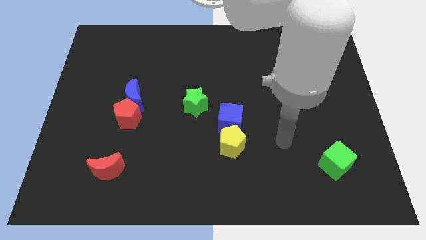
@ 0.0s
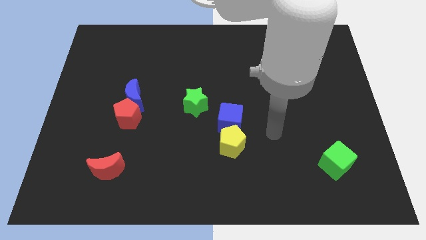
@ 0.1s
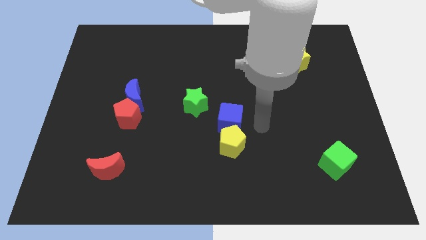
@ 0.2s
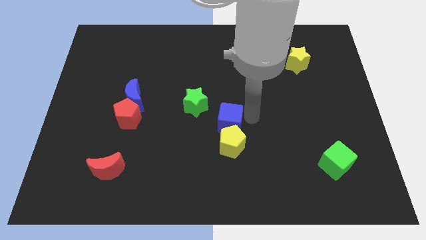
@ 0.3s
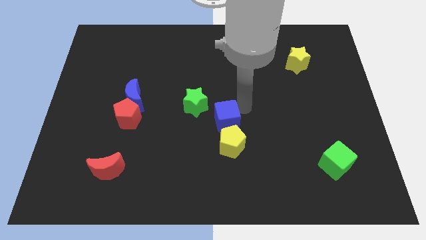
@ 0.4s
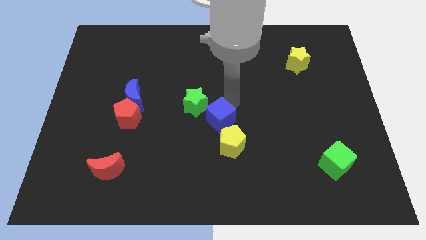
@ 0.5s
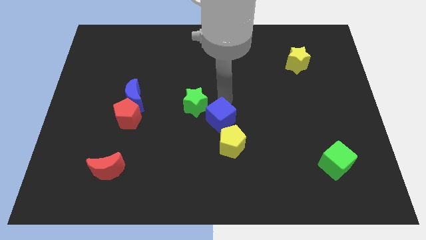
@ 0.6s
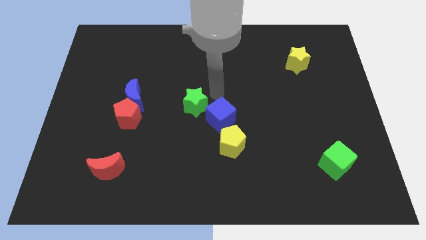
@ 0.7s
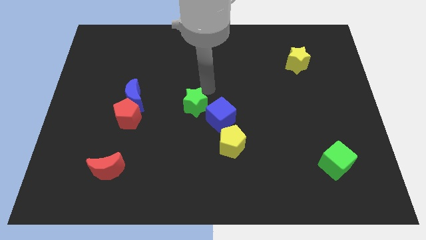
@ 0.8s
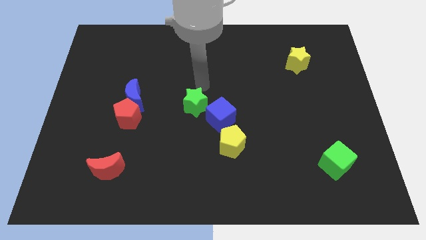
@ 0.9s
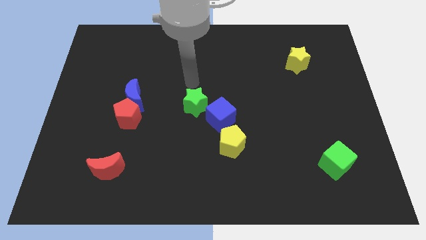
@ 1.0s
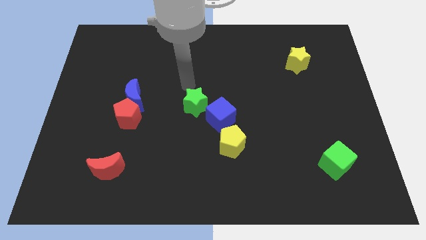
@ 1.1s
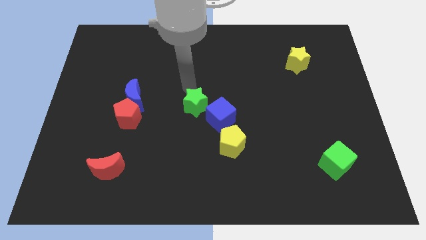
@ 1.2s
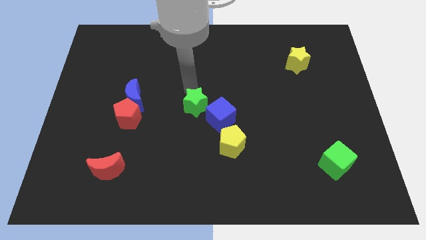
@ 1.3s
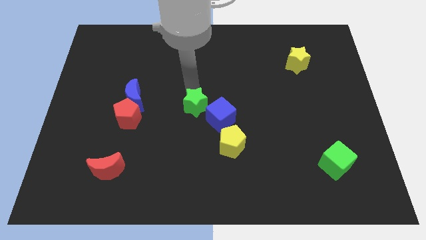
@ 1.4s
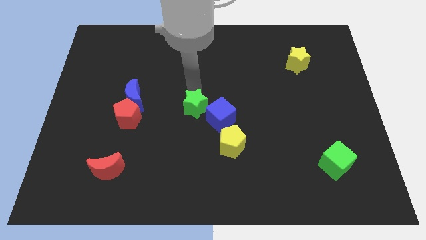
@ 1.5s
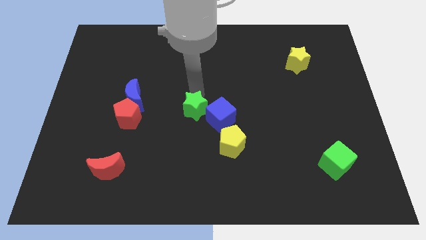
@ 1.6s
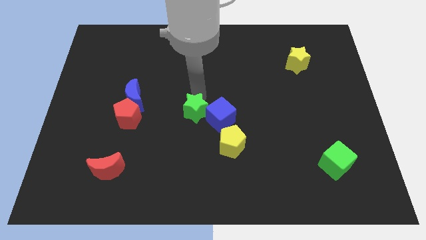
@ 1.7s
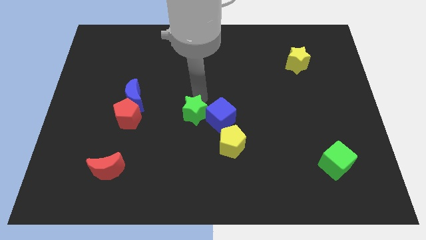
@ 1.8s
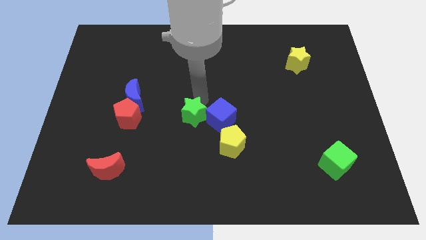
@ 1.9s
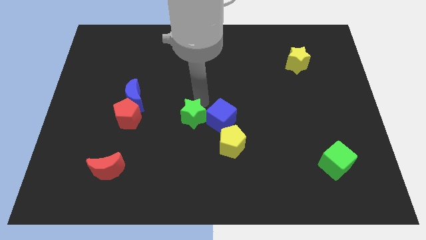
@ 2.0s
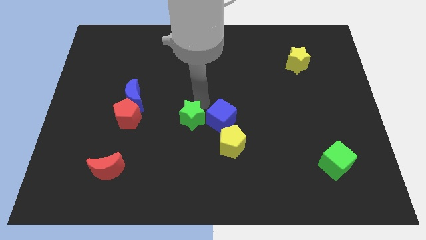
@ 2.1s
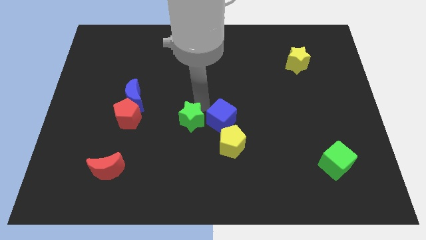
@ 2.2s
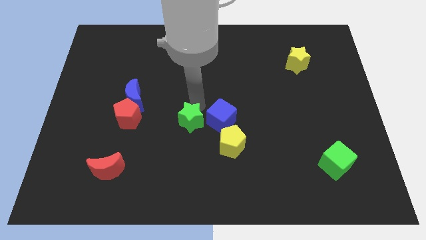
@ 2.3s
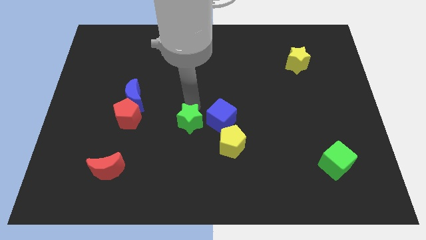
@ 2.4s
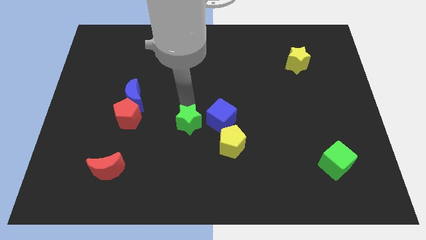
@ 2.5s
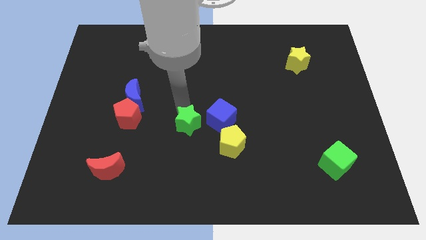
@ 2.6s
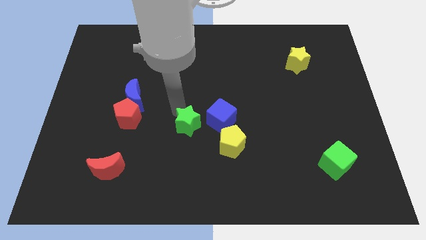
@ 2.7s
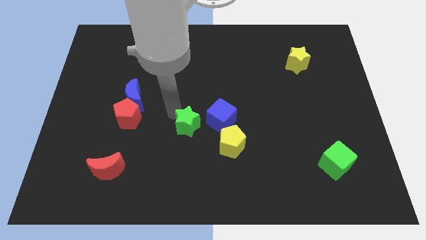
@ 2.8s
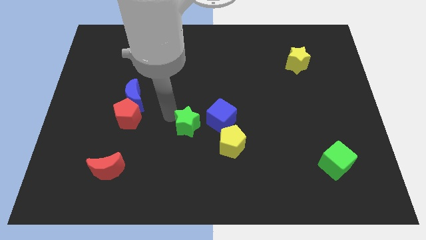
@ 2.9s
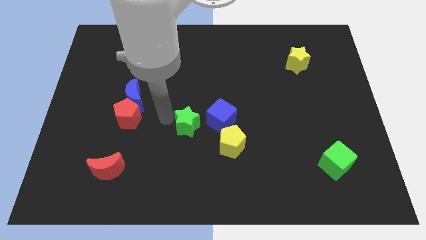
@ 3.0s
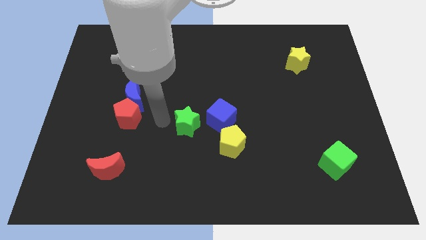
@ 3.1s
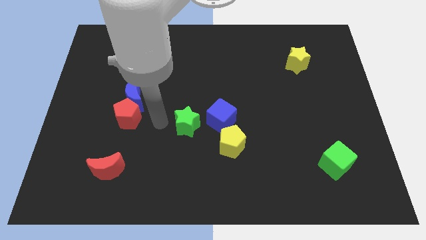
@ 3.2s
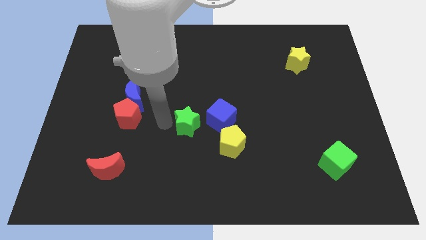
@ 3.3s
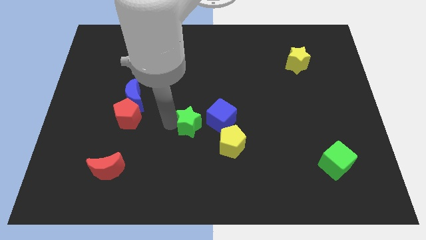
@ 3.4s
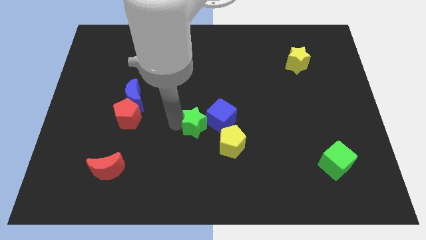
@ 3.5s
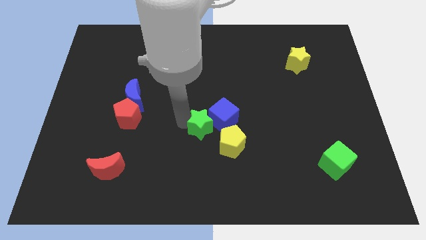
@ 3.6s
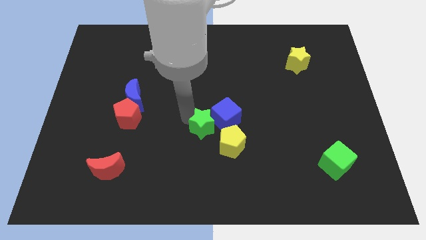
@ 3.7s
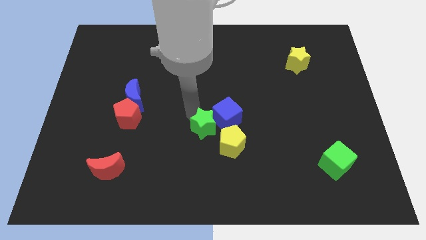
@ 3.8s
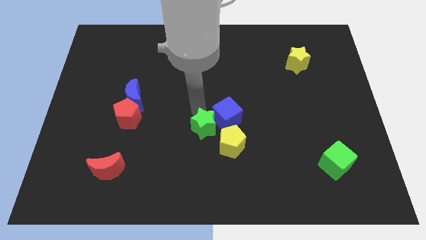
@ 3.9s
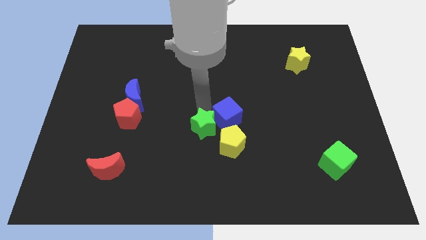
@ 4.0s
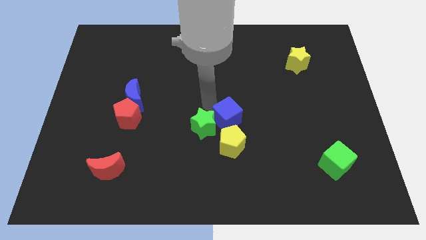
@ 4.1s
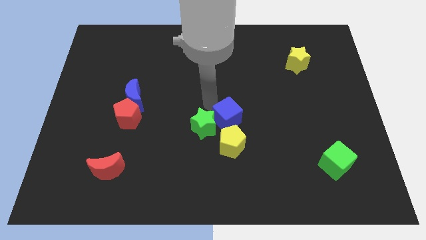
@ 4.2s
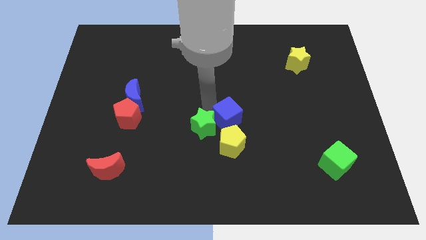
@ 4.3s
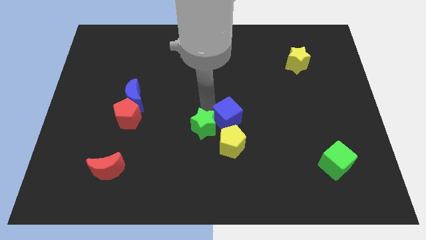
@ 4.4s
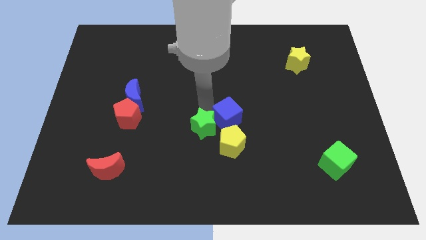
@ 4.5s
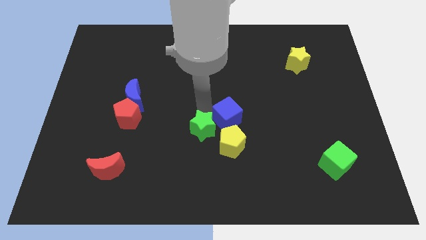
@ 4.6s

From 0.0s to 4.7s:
move the green star somewhat down

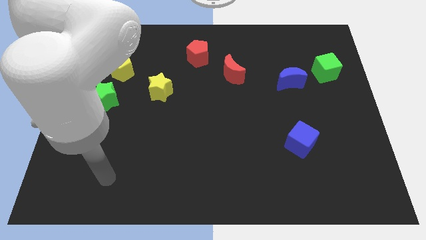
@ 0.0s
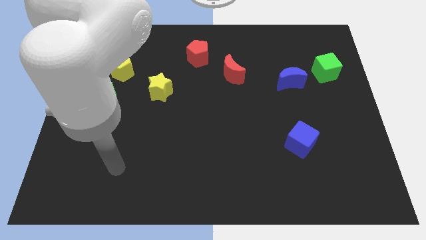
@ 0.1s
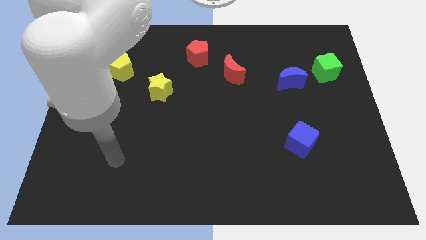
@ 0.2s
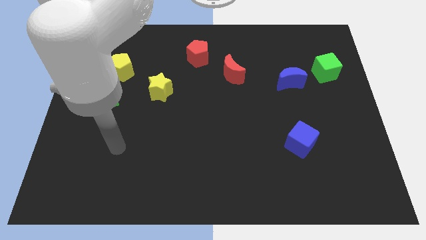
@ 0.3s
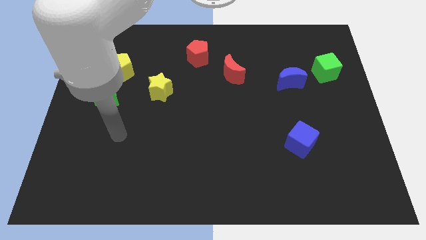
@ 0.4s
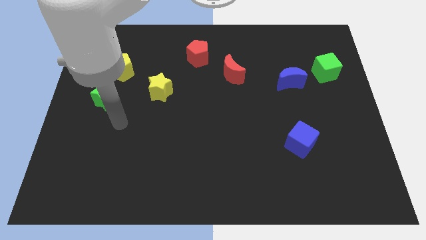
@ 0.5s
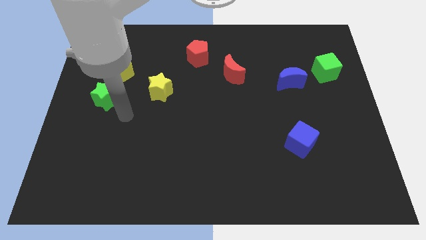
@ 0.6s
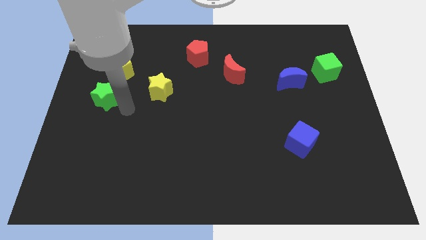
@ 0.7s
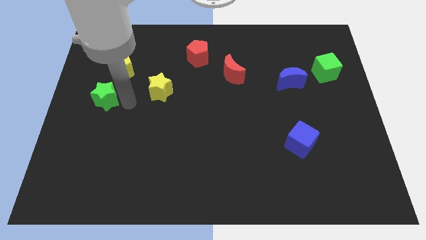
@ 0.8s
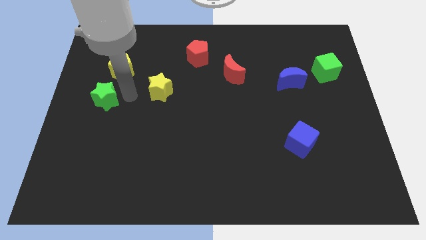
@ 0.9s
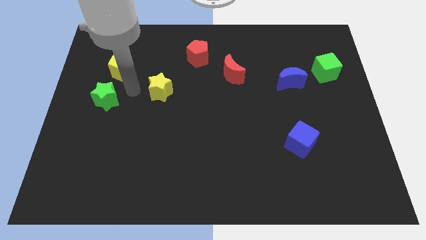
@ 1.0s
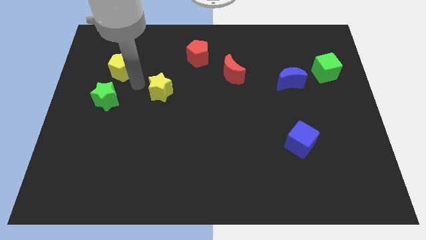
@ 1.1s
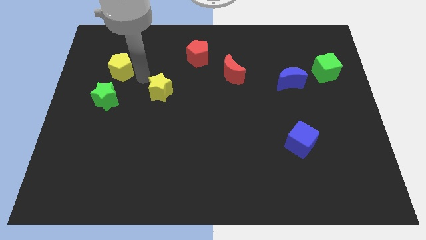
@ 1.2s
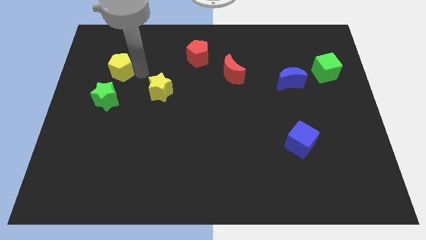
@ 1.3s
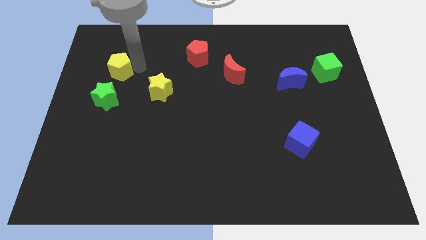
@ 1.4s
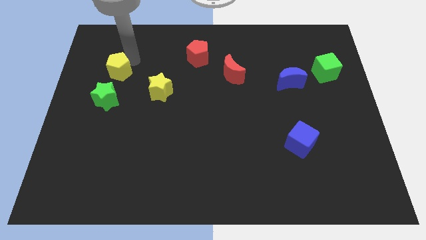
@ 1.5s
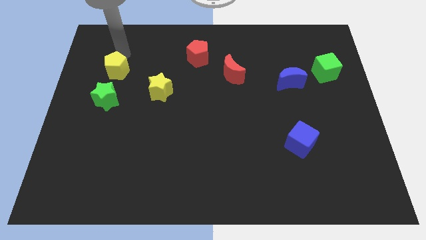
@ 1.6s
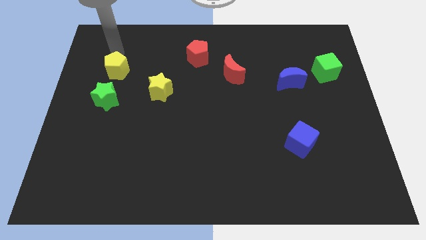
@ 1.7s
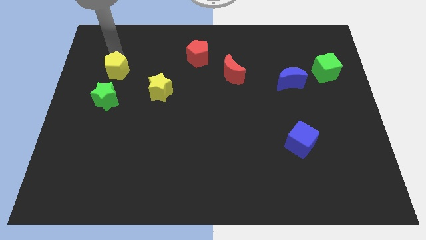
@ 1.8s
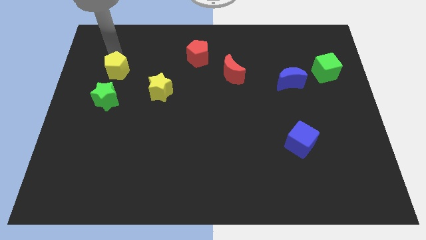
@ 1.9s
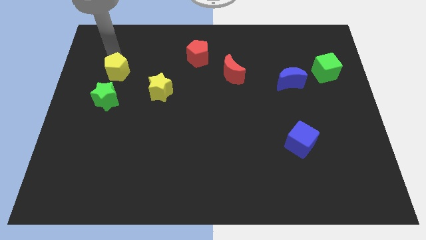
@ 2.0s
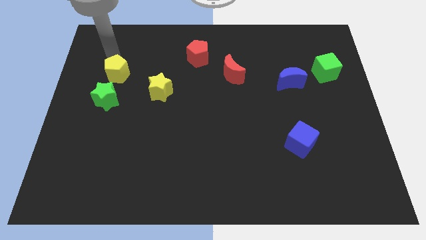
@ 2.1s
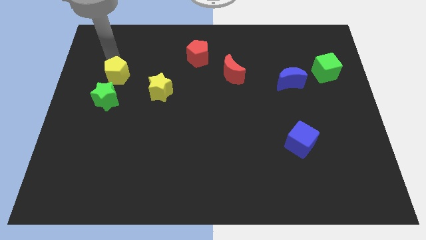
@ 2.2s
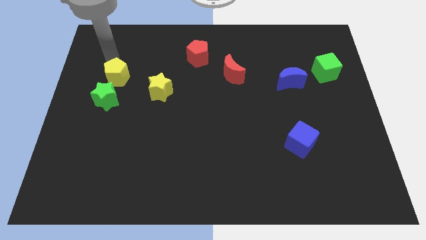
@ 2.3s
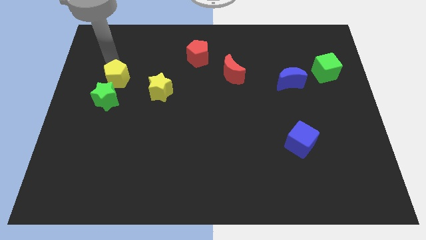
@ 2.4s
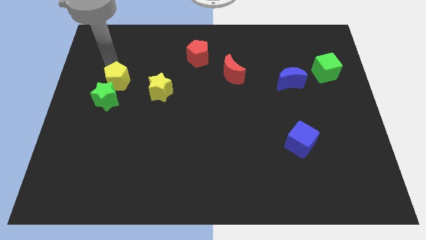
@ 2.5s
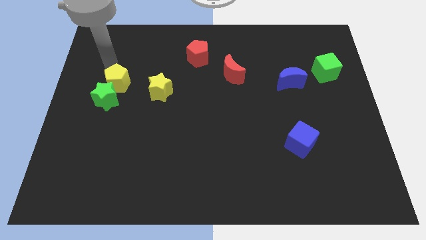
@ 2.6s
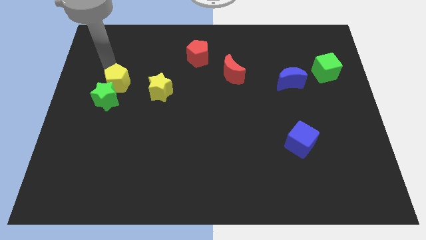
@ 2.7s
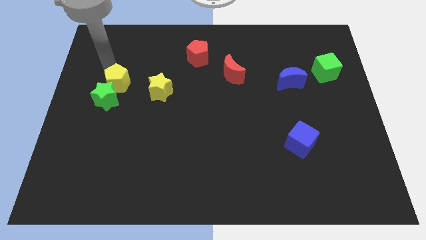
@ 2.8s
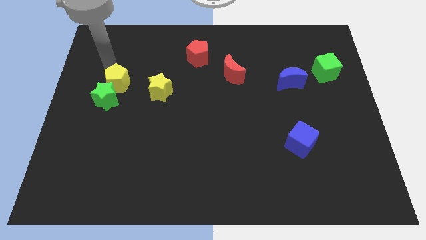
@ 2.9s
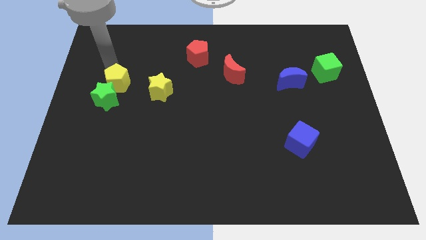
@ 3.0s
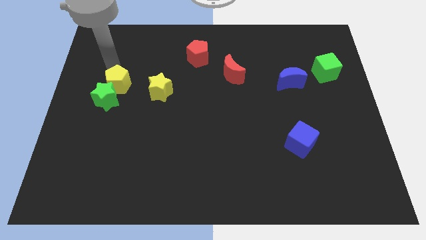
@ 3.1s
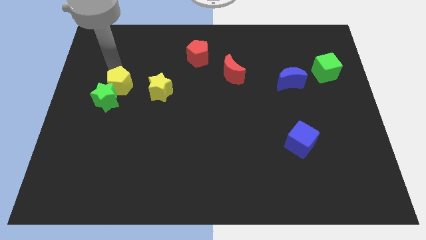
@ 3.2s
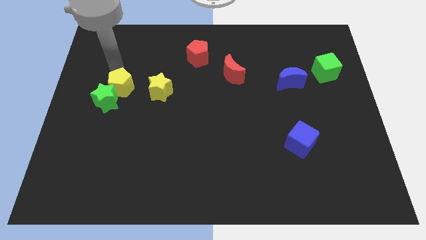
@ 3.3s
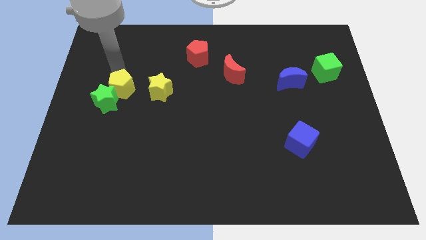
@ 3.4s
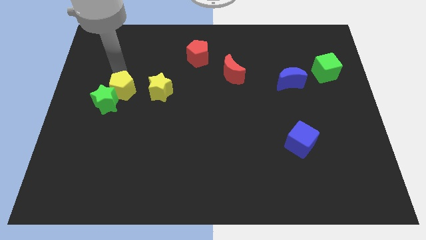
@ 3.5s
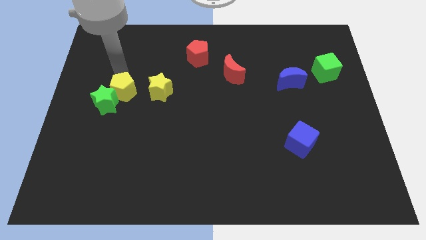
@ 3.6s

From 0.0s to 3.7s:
push the yellow pentagon downwards somewhat
